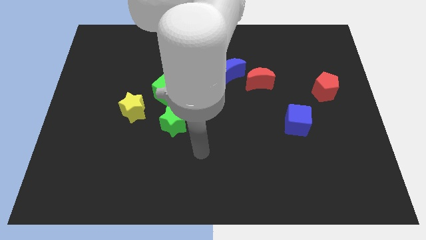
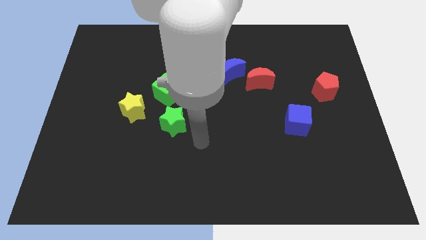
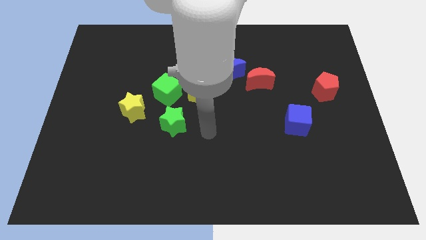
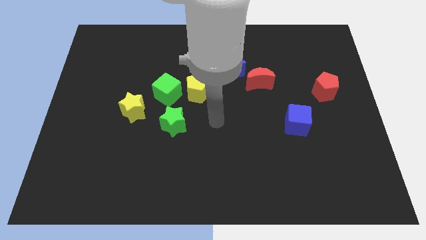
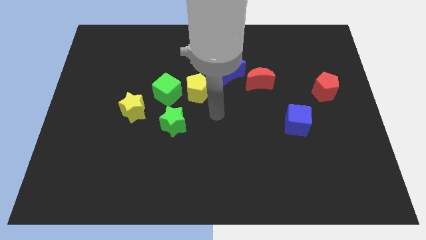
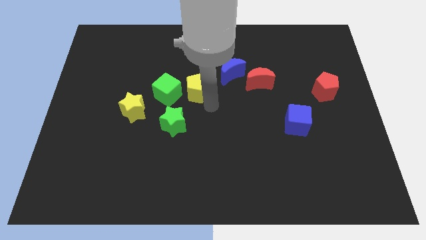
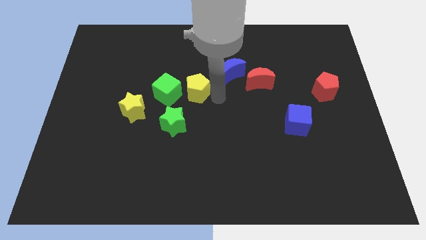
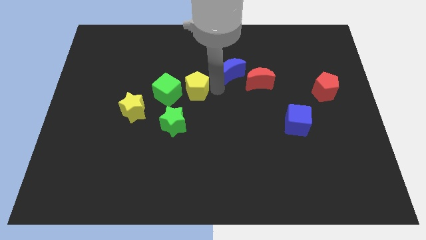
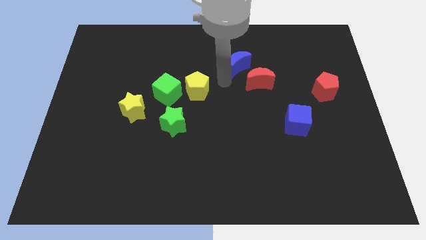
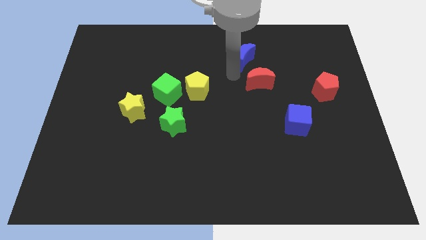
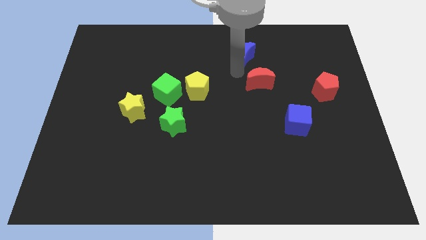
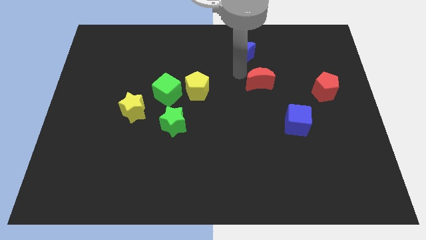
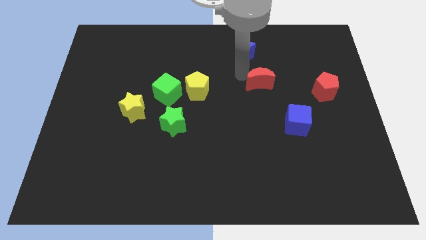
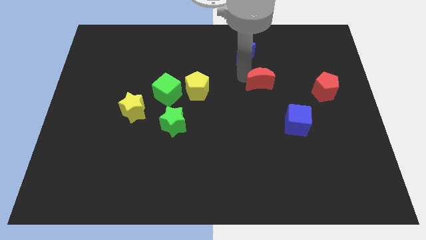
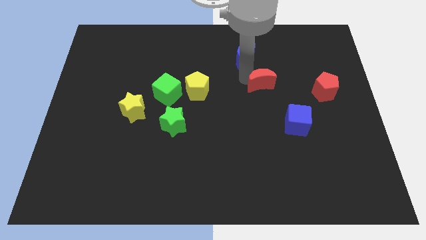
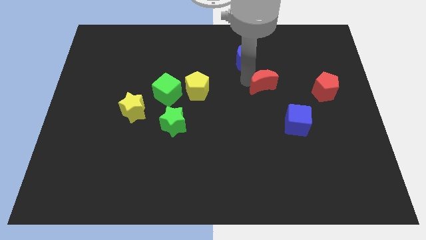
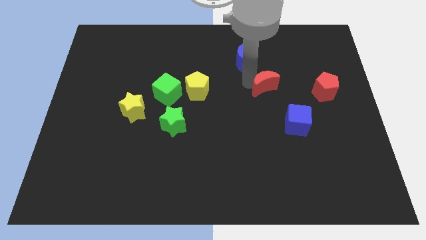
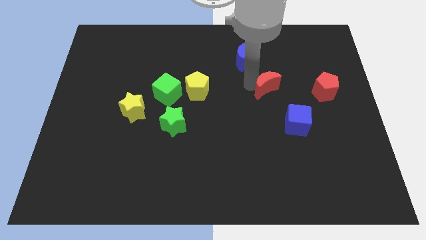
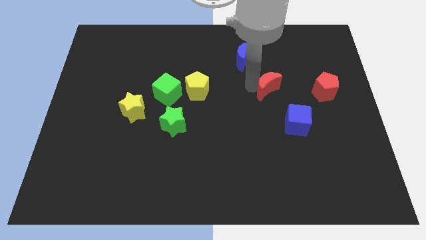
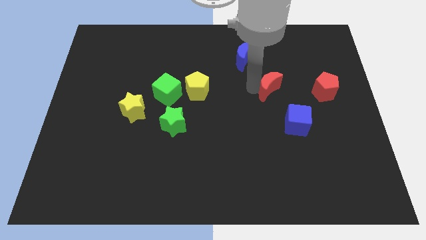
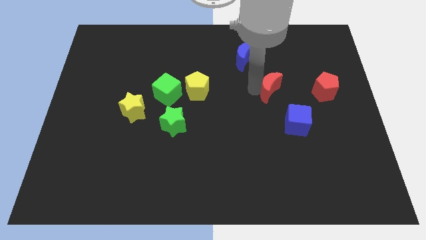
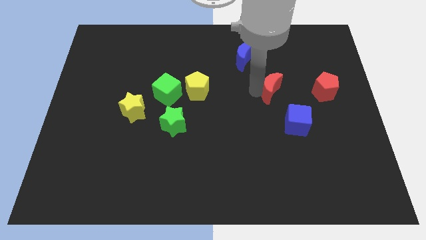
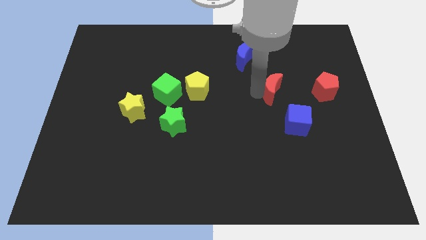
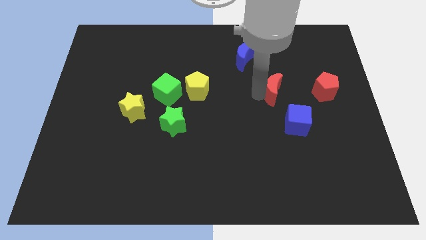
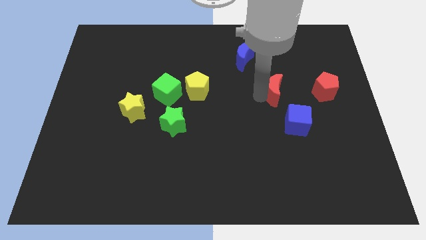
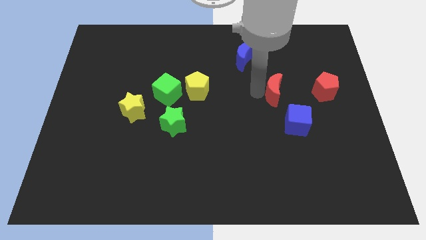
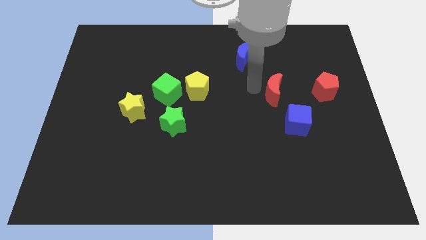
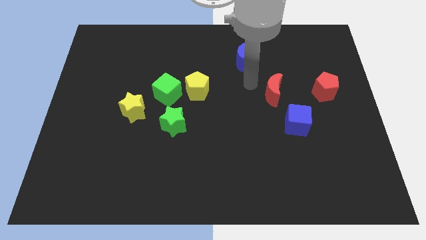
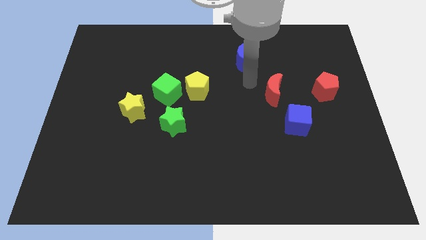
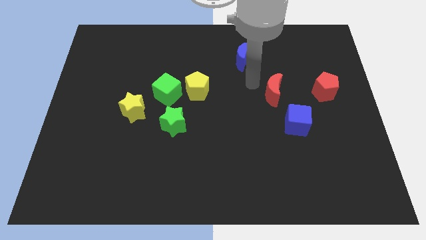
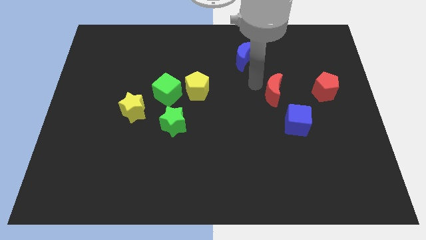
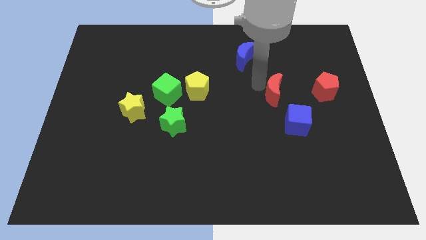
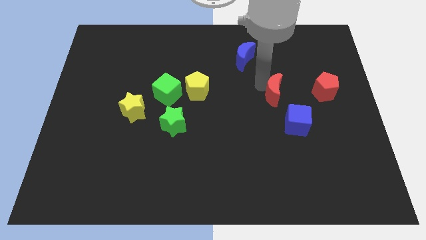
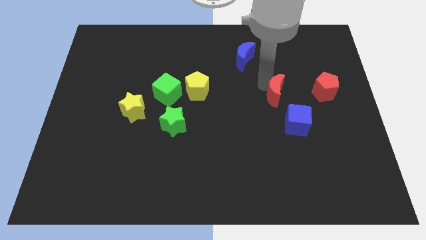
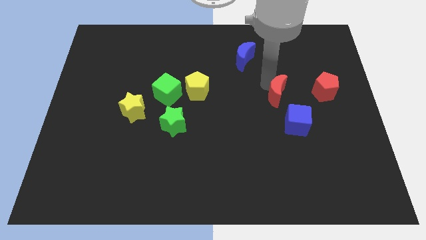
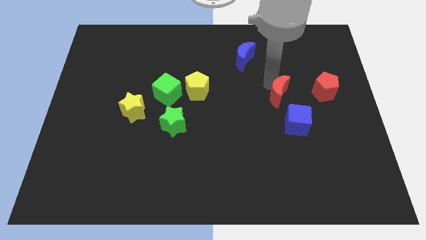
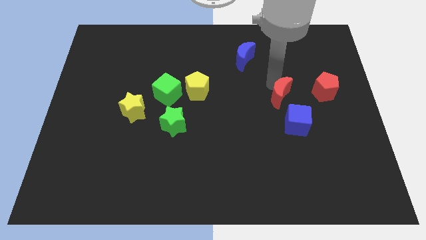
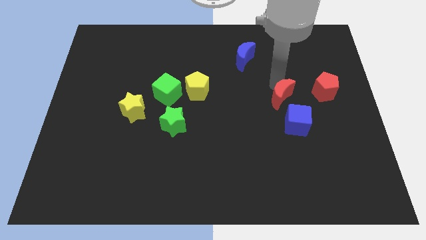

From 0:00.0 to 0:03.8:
slightly move the red moon down and then right

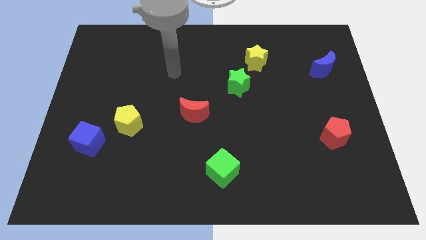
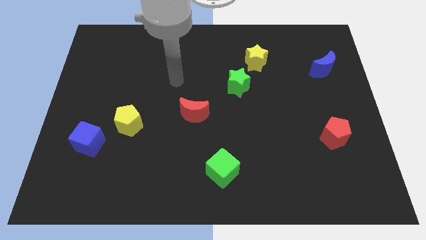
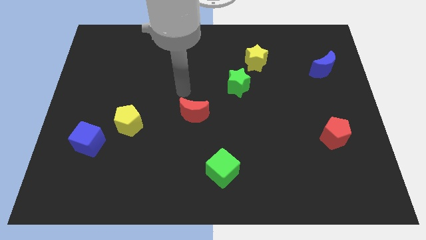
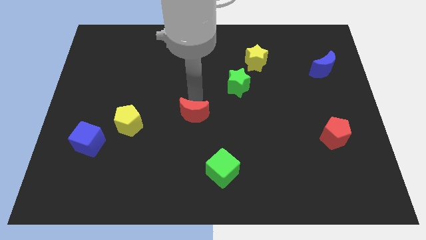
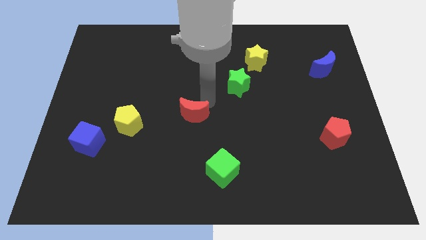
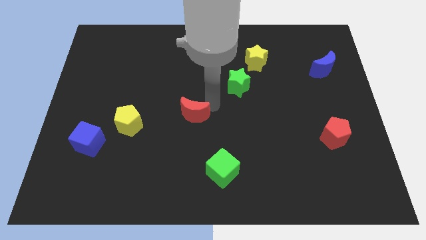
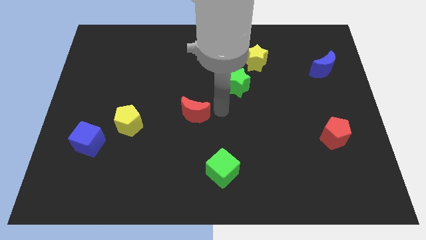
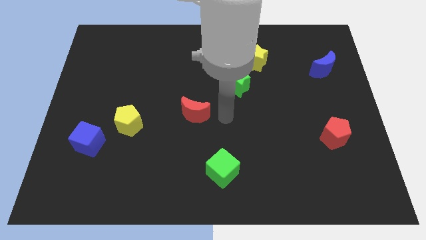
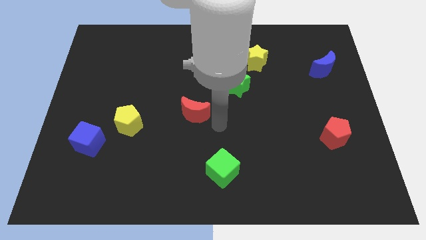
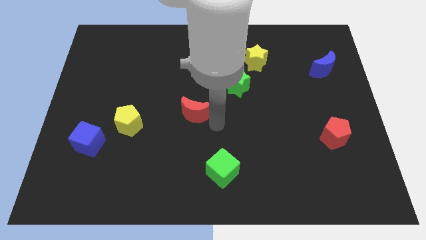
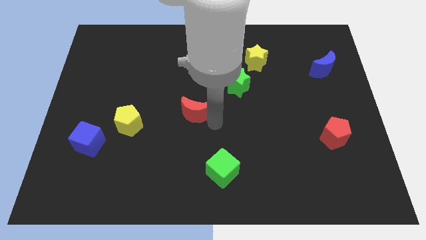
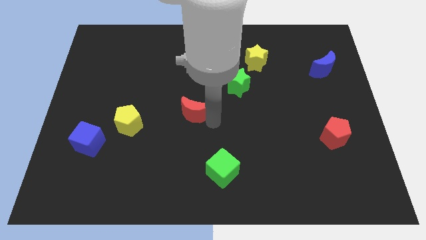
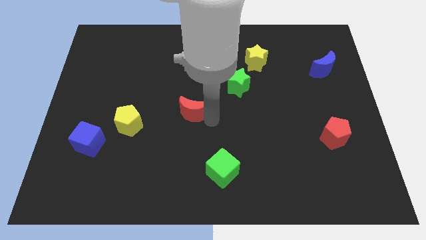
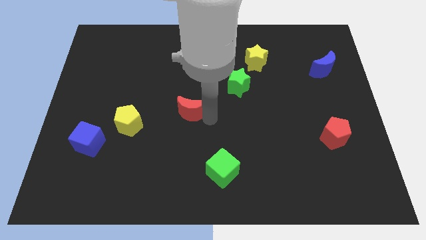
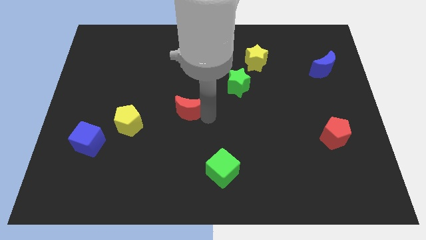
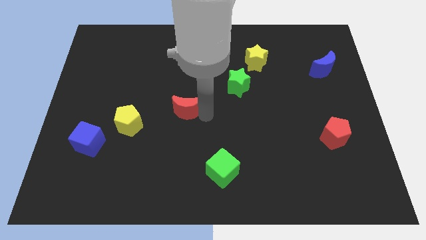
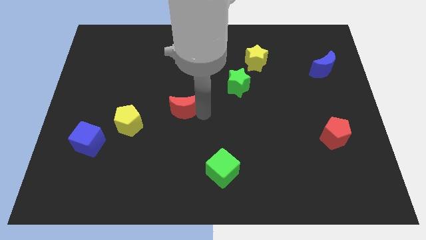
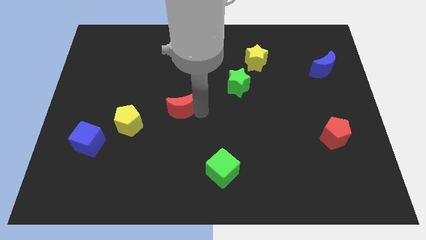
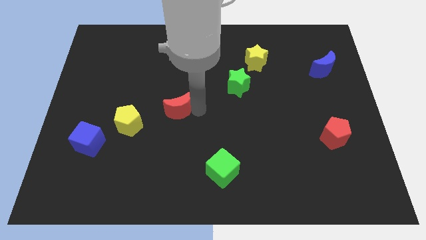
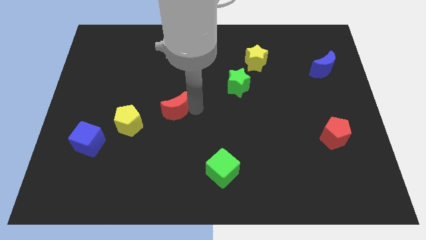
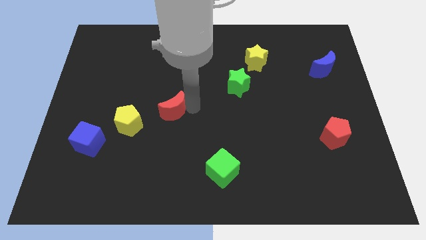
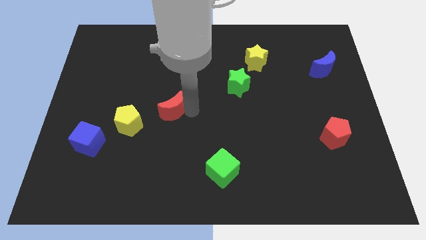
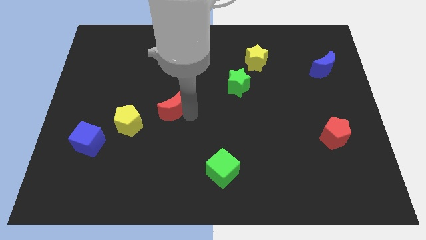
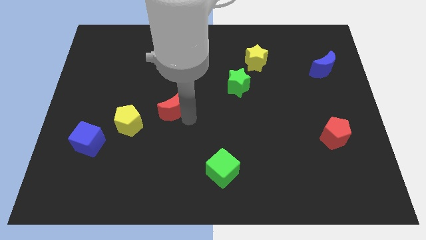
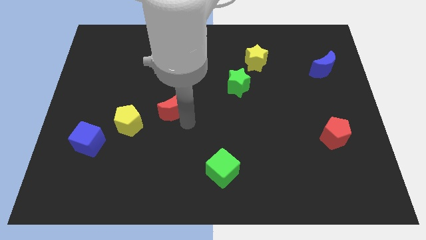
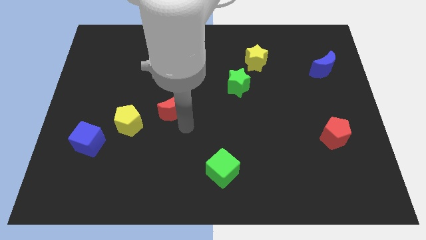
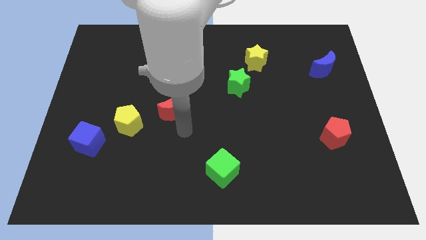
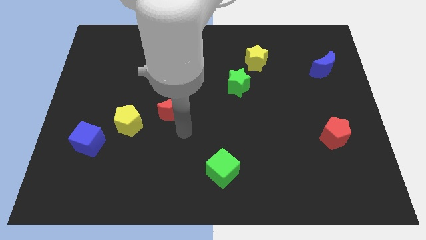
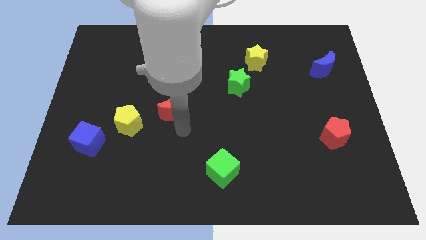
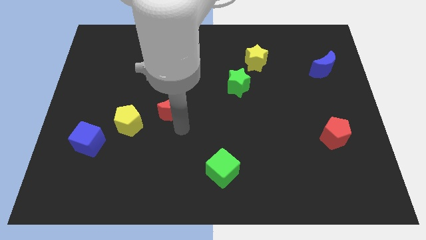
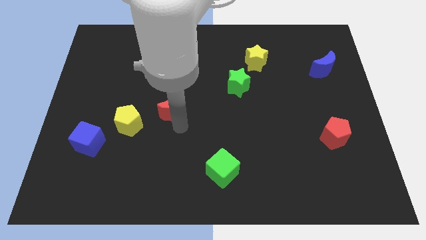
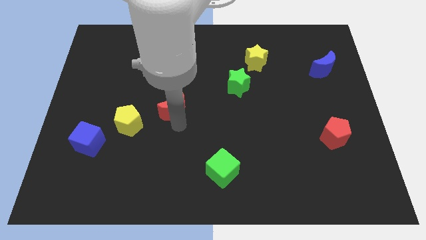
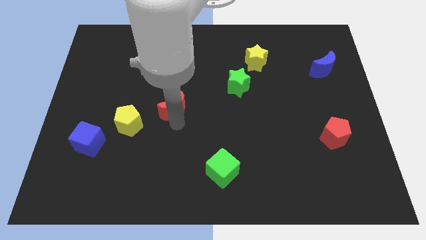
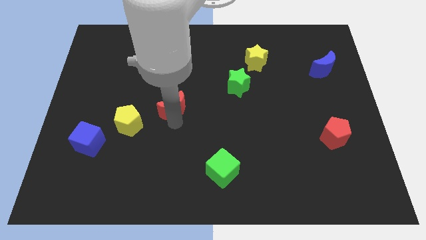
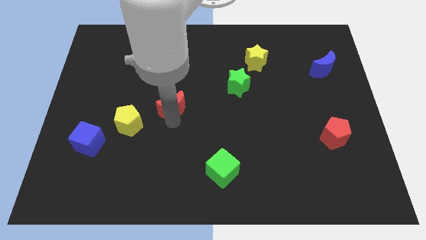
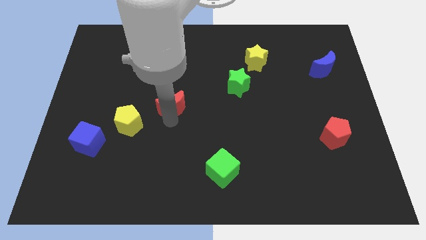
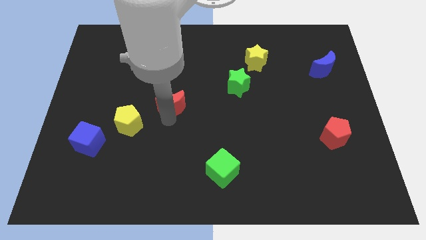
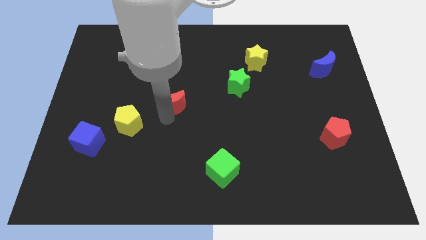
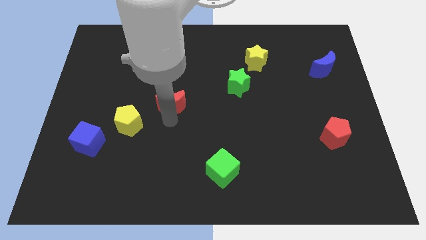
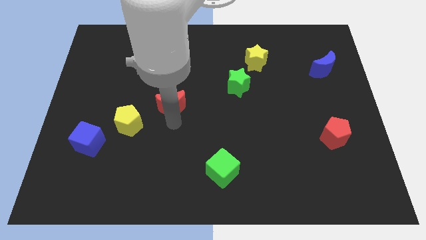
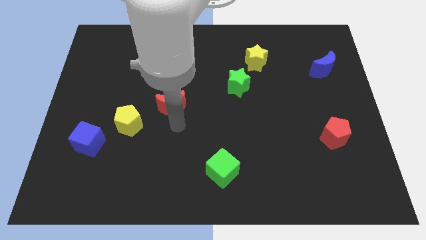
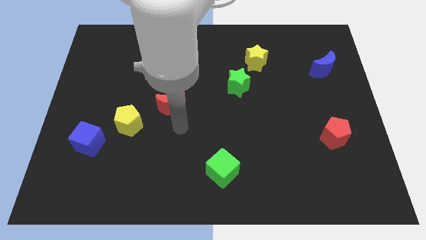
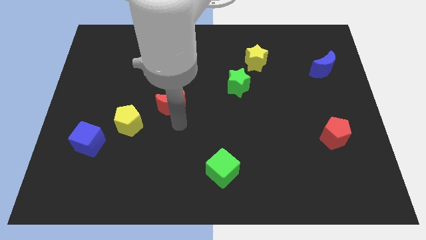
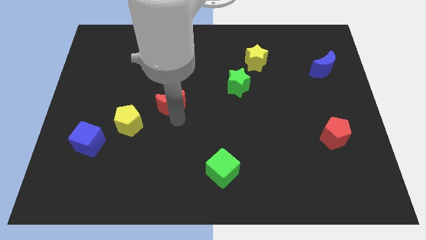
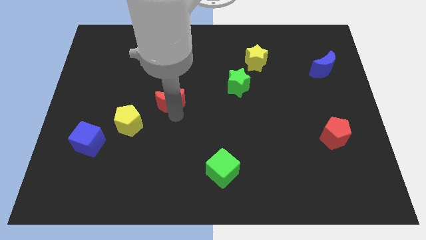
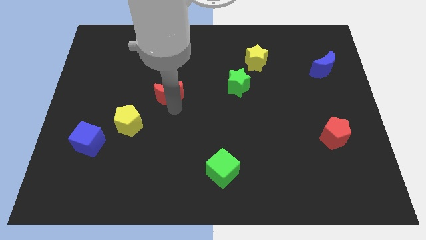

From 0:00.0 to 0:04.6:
slightly push the red moon diagonally upwards and to the left
